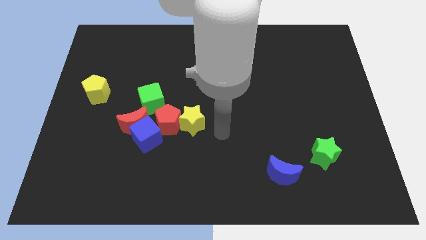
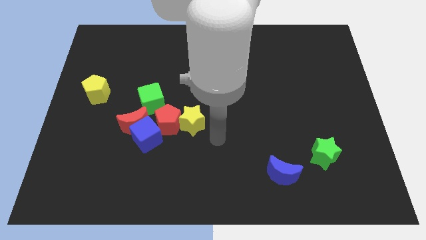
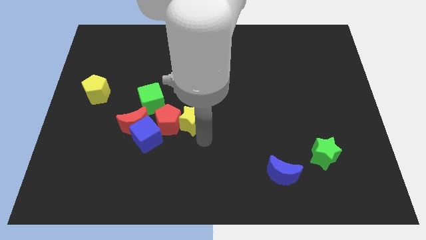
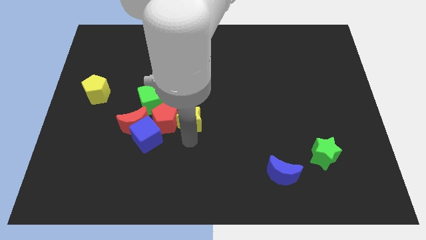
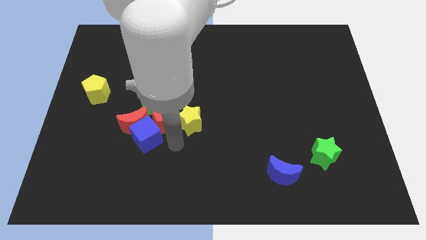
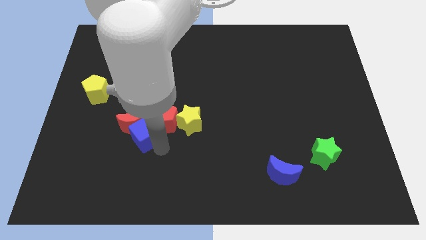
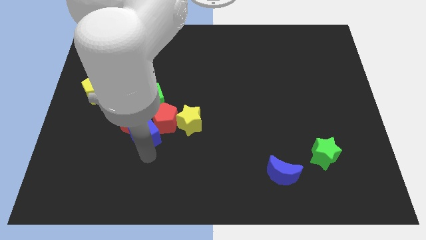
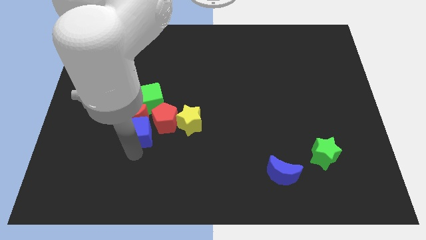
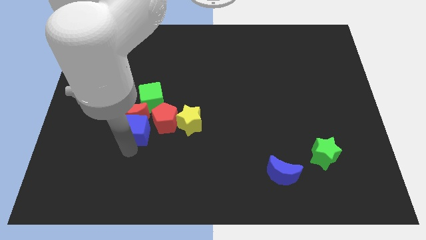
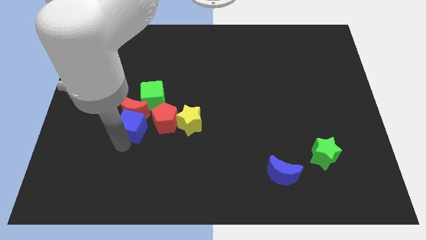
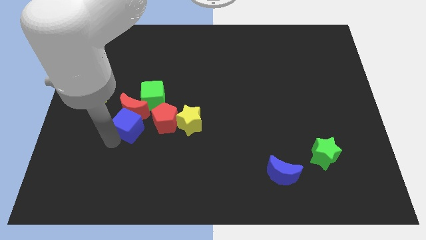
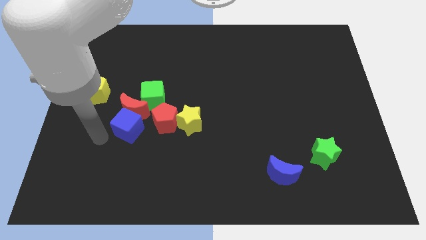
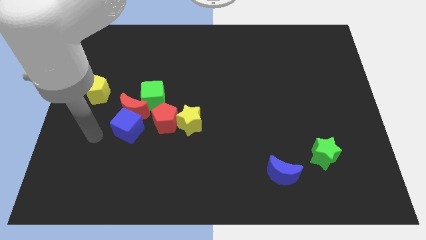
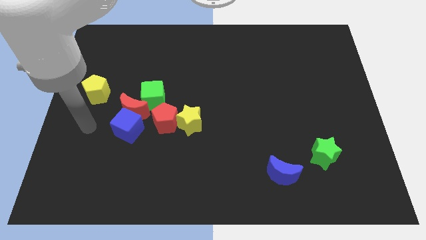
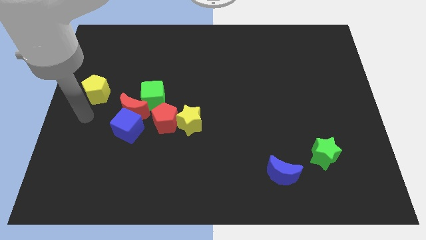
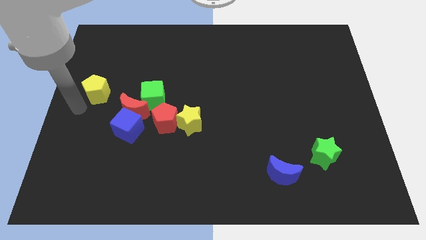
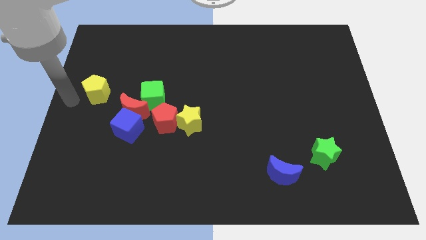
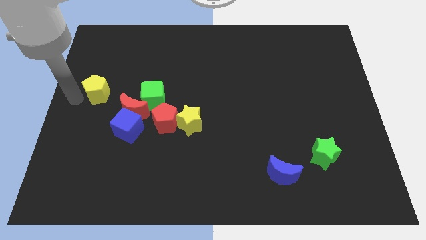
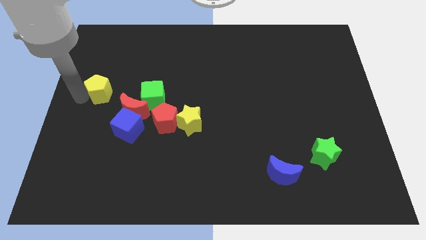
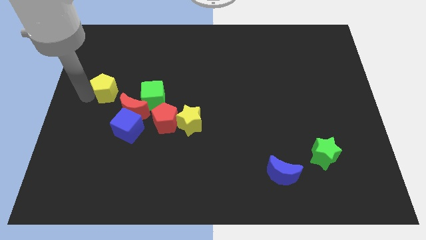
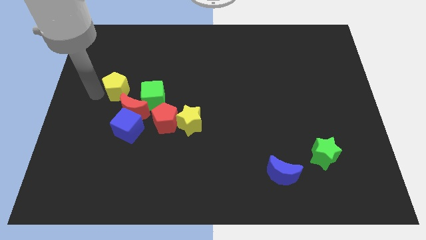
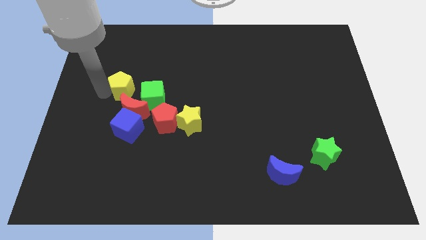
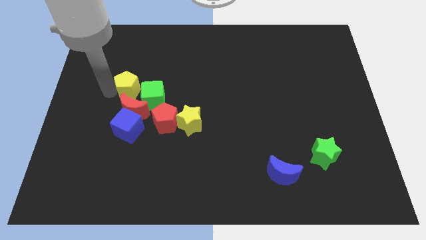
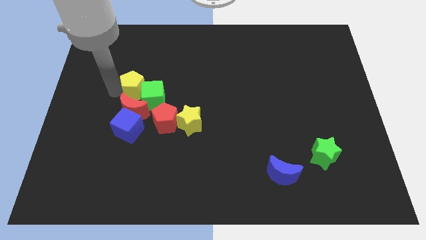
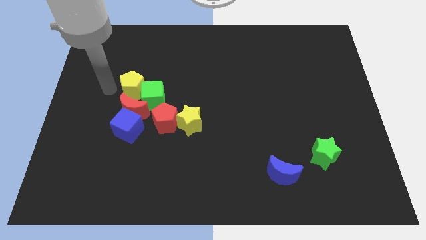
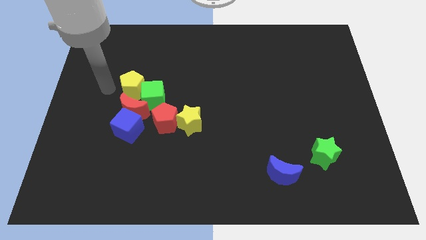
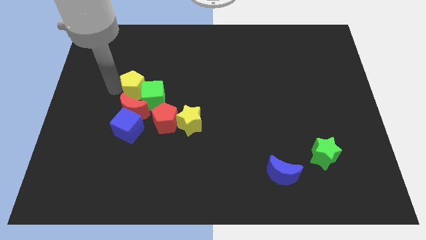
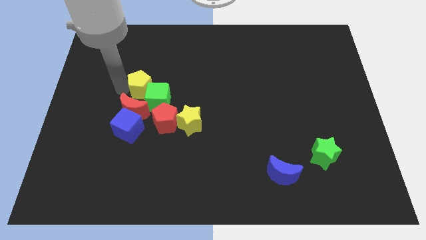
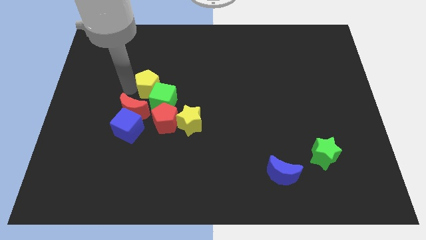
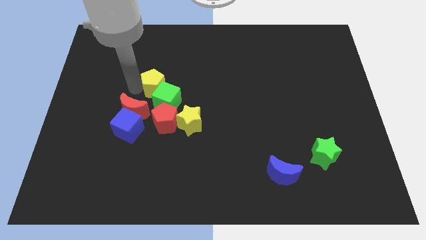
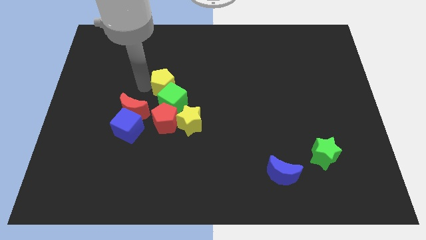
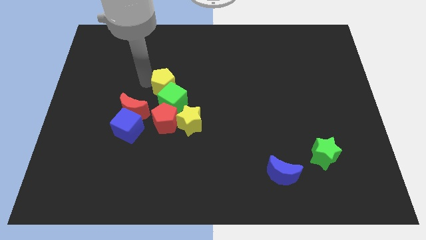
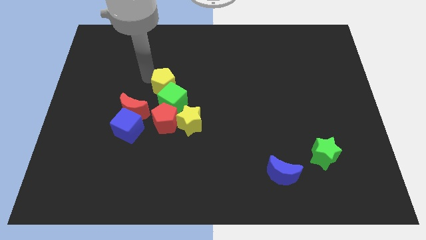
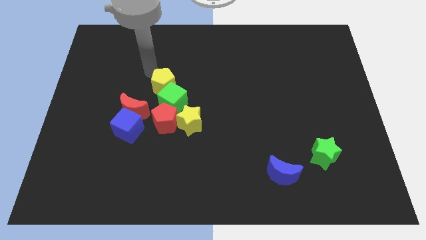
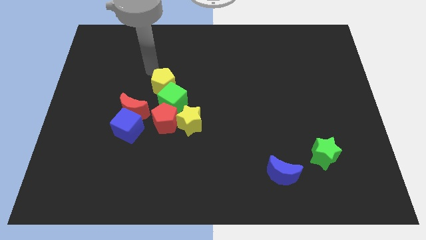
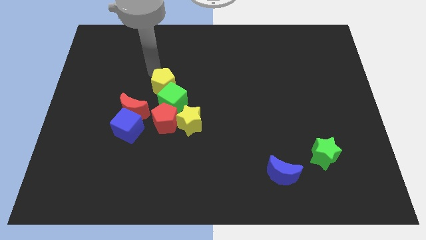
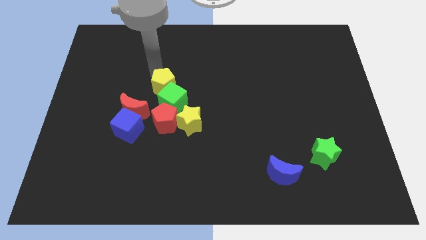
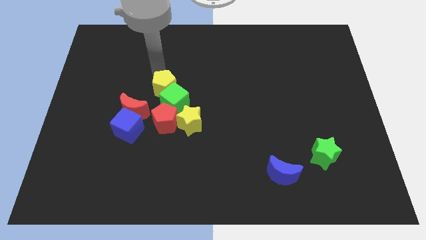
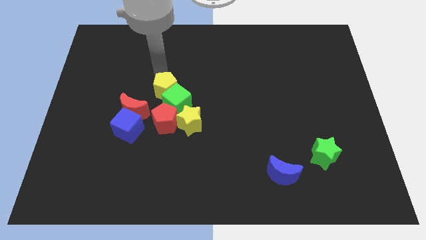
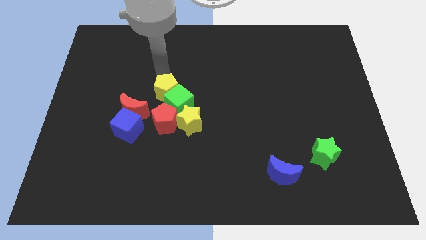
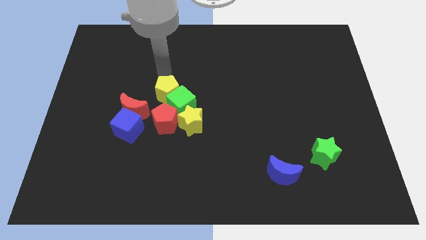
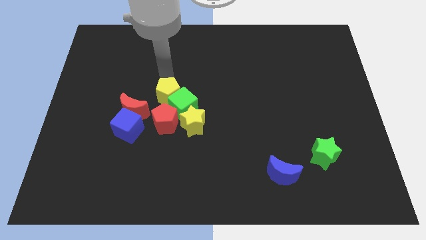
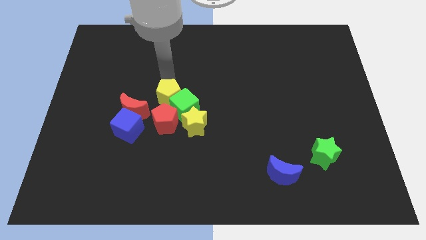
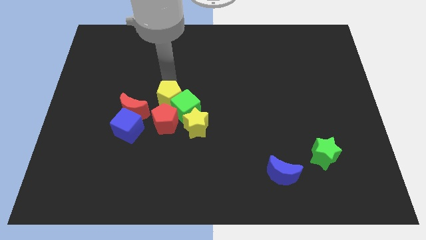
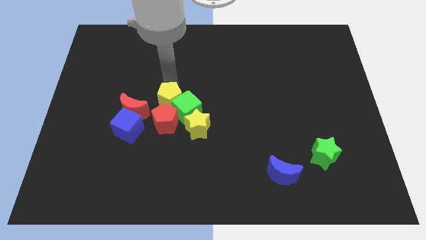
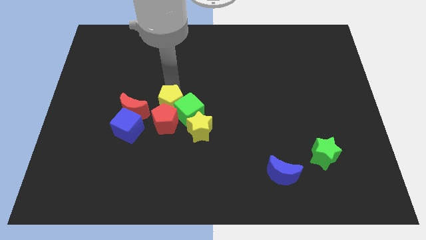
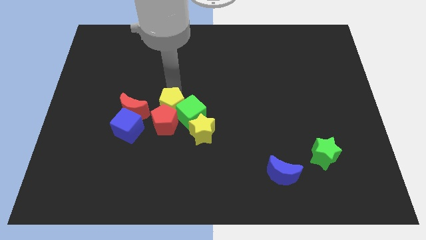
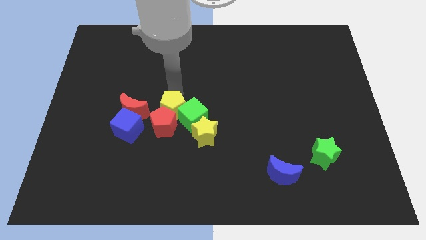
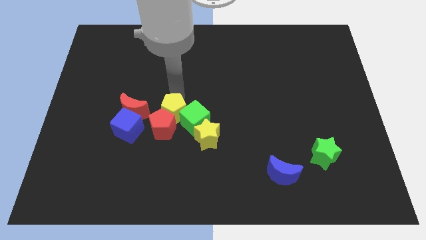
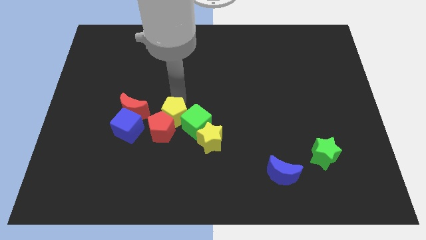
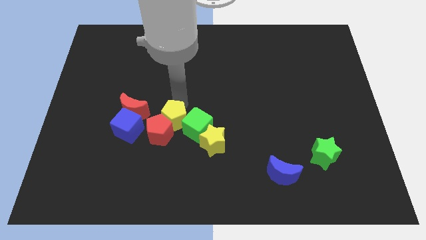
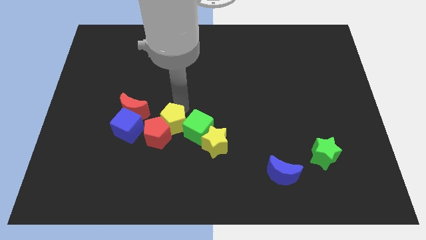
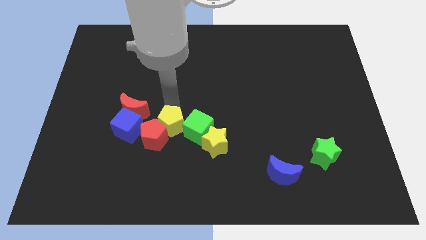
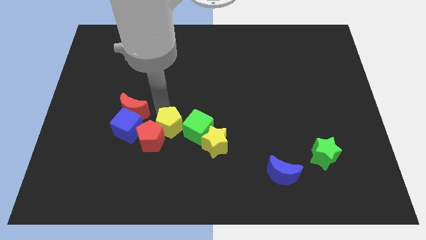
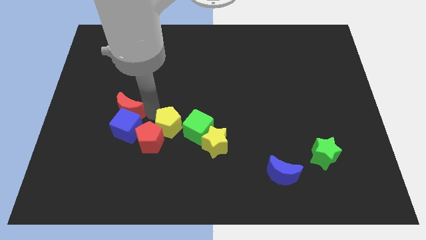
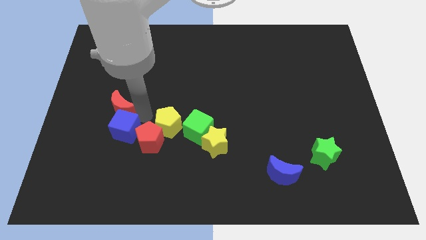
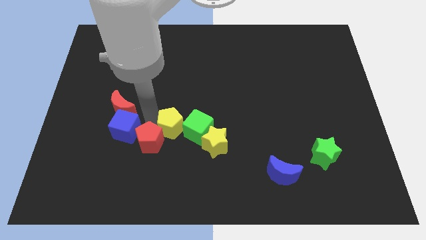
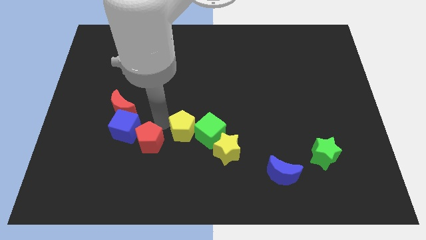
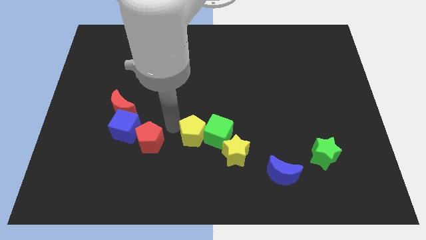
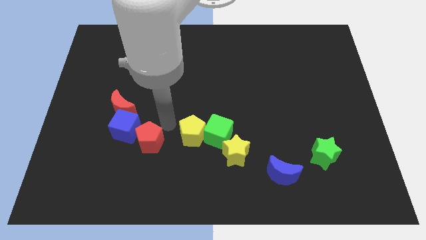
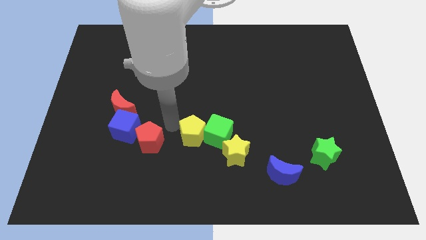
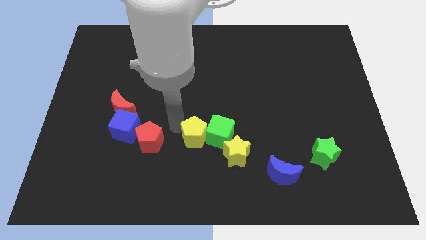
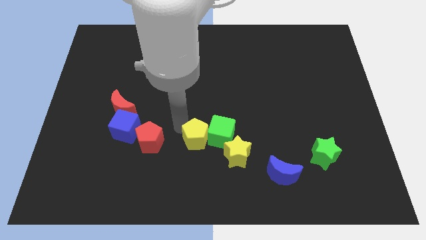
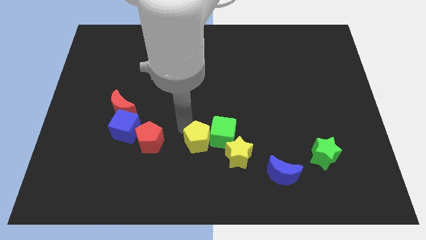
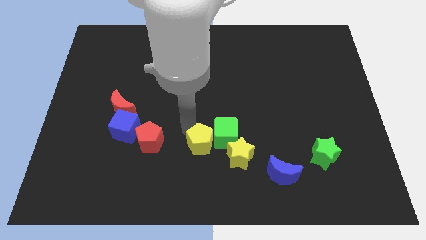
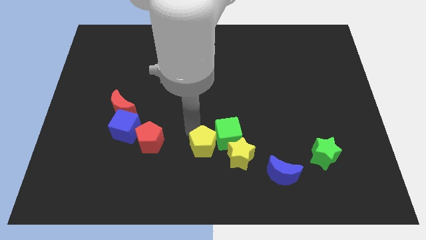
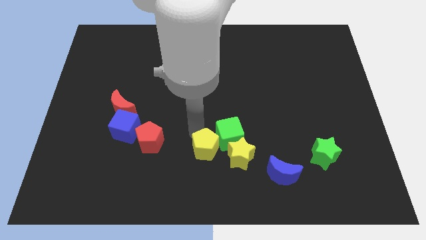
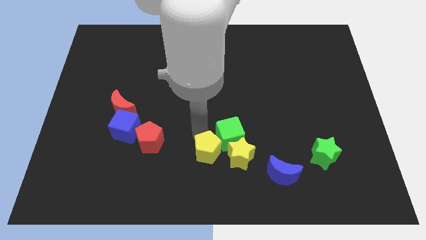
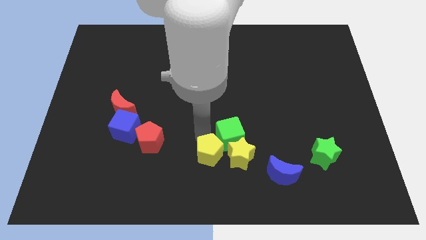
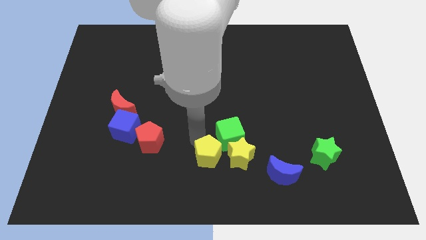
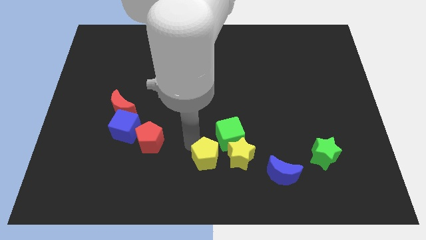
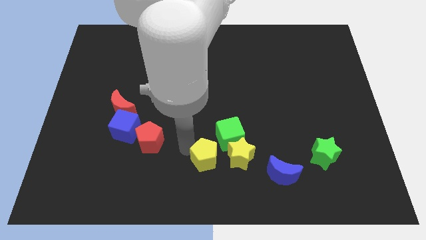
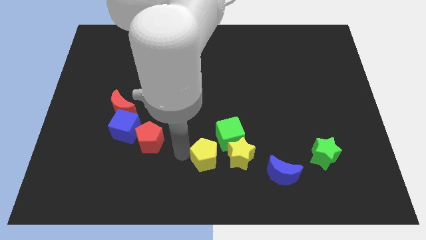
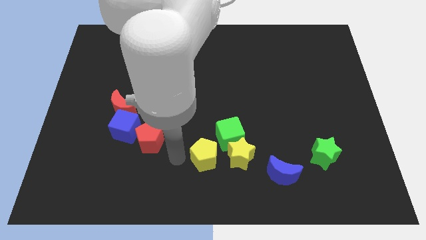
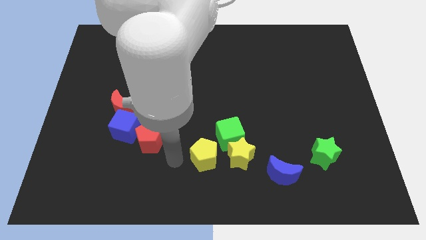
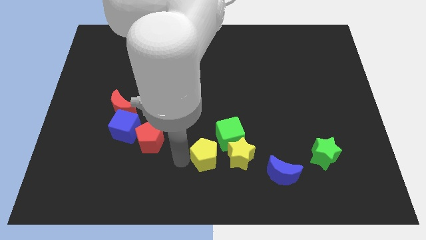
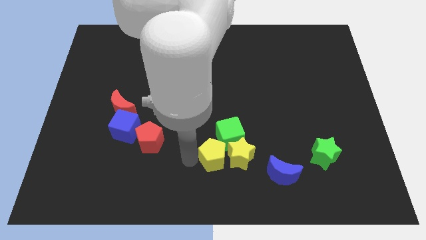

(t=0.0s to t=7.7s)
move the yellow pentagon towards the yellow star
